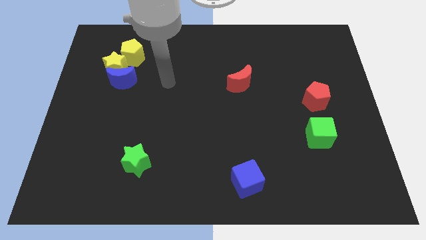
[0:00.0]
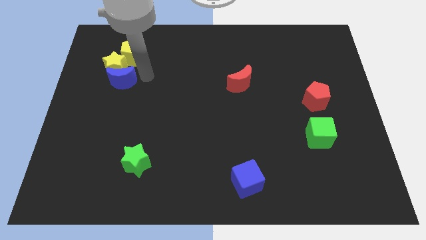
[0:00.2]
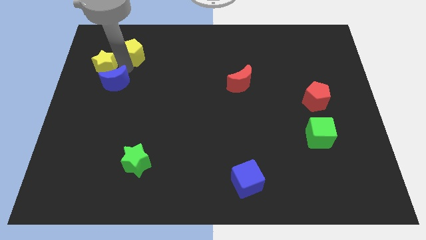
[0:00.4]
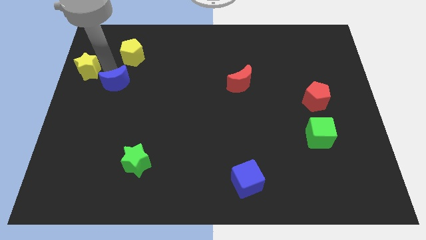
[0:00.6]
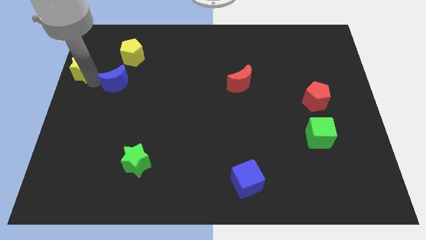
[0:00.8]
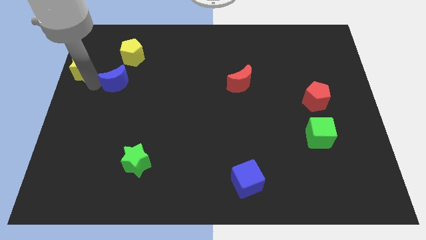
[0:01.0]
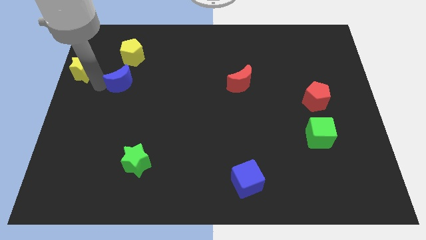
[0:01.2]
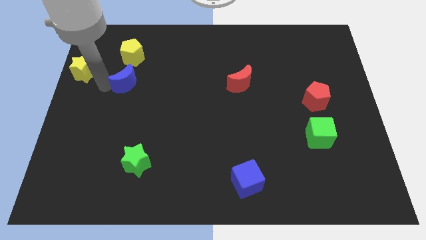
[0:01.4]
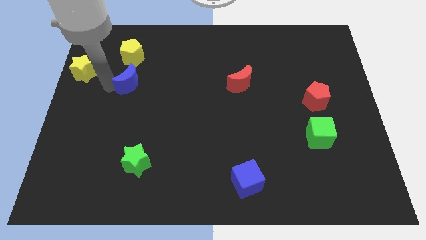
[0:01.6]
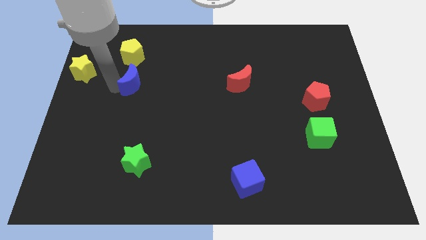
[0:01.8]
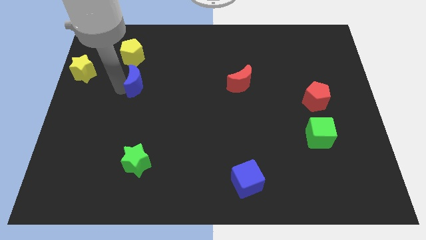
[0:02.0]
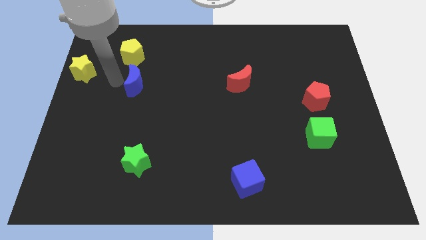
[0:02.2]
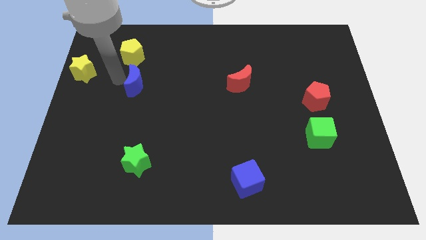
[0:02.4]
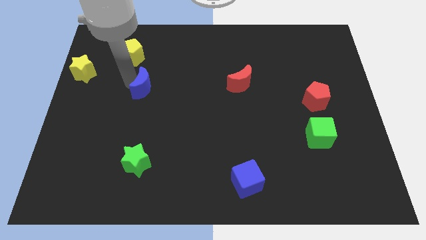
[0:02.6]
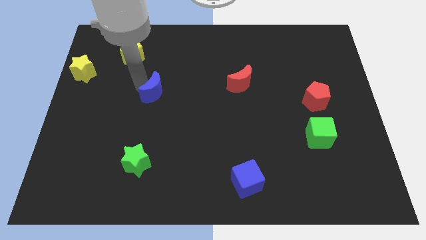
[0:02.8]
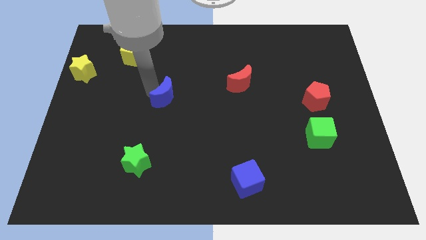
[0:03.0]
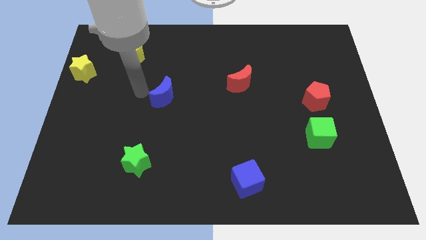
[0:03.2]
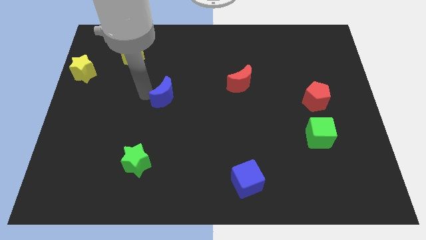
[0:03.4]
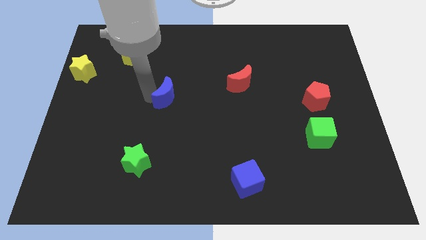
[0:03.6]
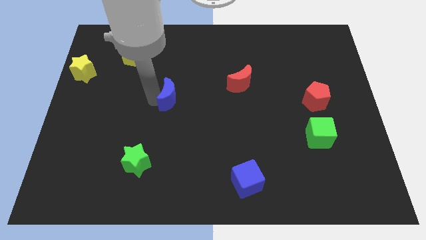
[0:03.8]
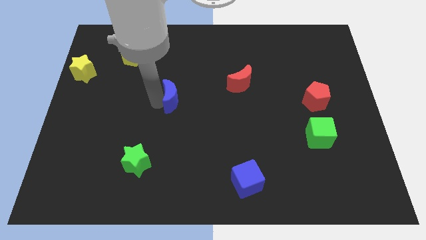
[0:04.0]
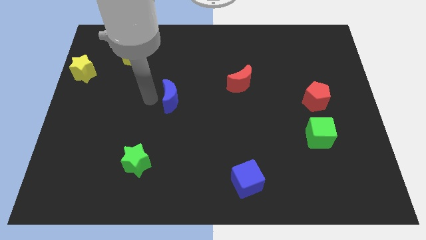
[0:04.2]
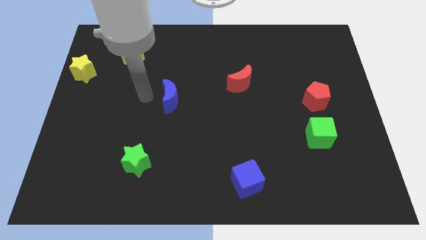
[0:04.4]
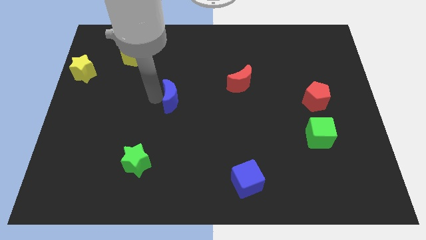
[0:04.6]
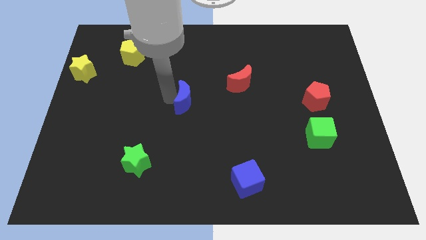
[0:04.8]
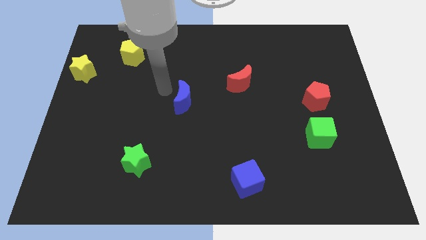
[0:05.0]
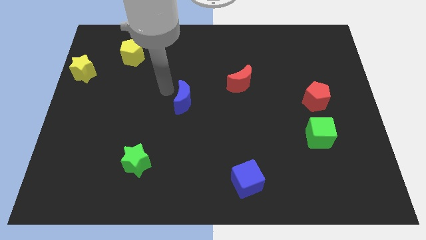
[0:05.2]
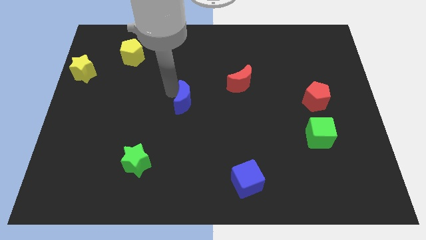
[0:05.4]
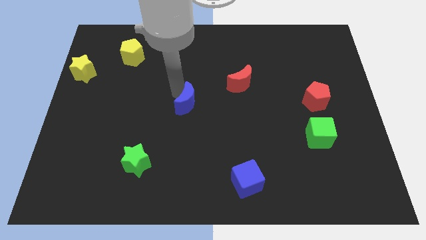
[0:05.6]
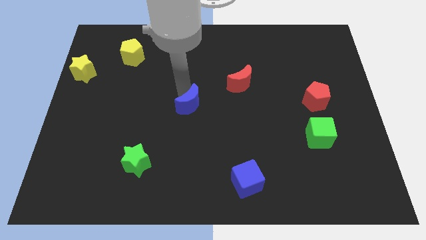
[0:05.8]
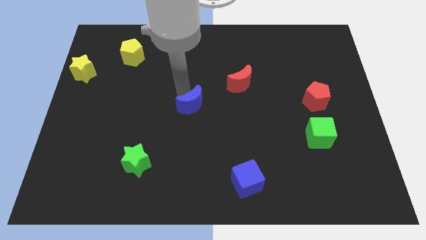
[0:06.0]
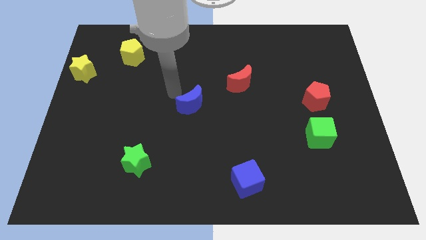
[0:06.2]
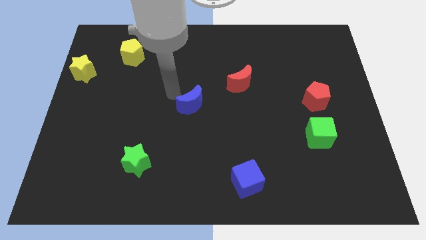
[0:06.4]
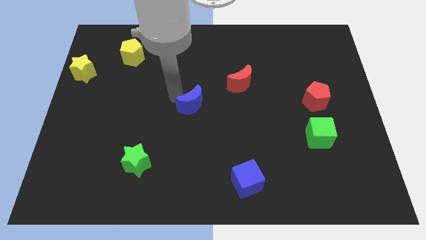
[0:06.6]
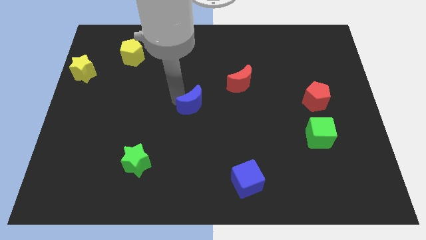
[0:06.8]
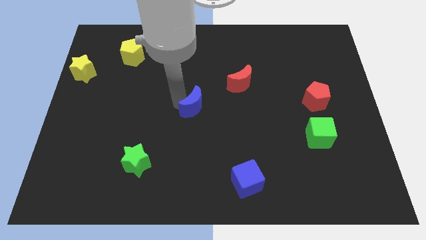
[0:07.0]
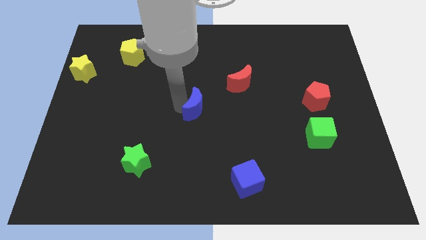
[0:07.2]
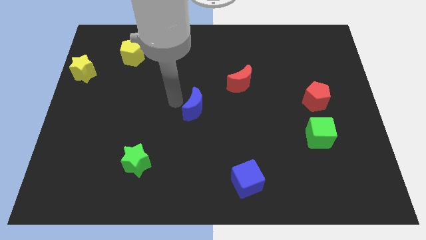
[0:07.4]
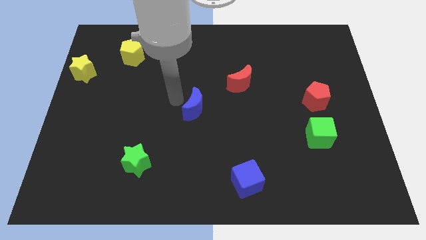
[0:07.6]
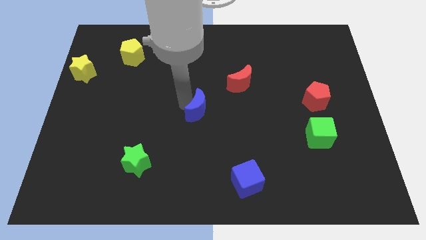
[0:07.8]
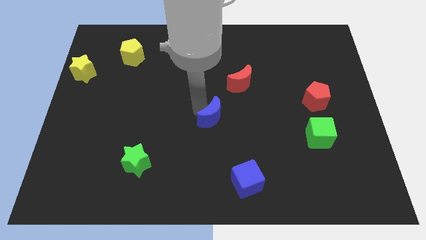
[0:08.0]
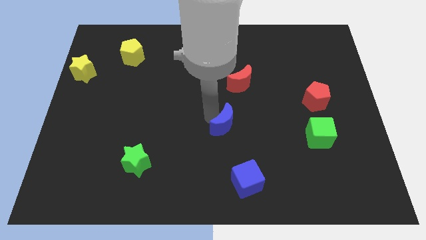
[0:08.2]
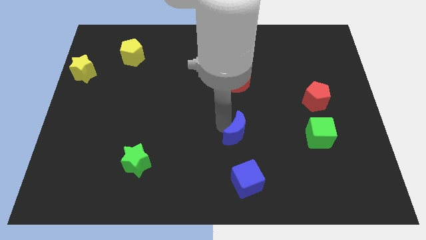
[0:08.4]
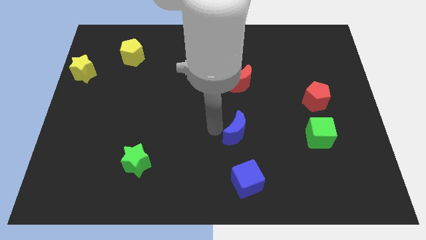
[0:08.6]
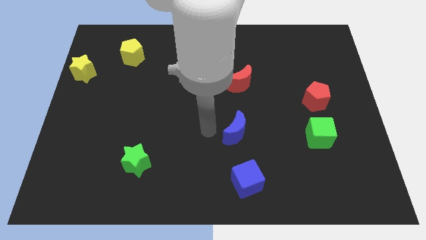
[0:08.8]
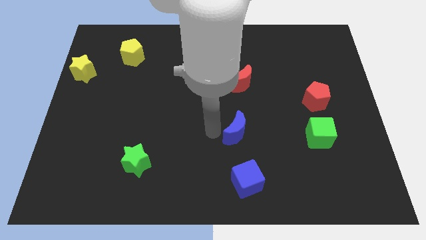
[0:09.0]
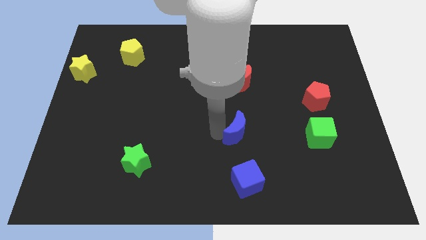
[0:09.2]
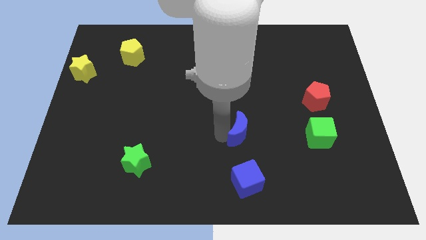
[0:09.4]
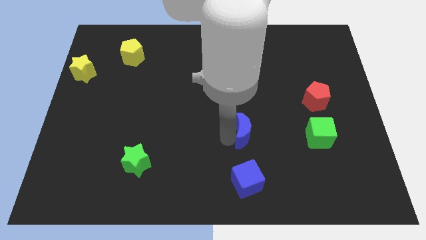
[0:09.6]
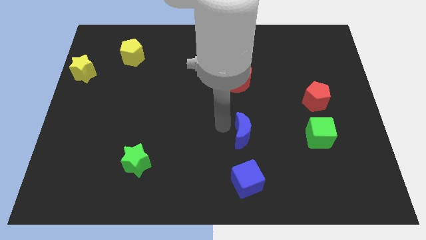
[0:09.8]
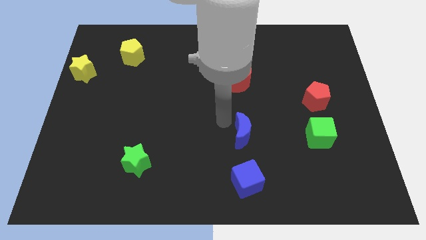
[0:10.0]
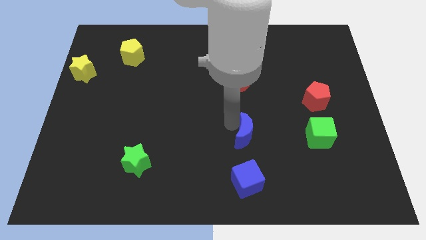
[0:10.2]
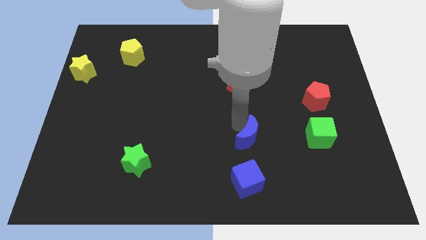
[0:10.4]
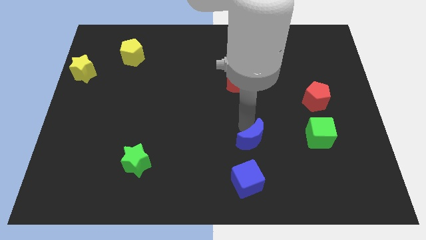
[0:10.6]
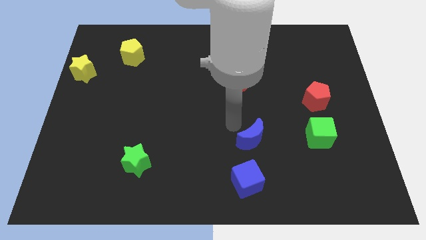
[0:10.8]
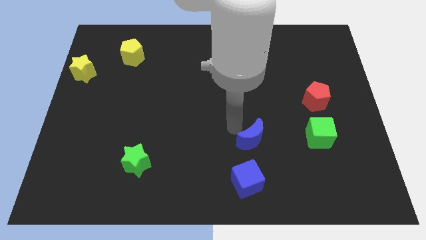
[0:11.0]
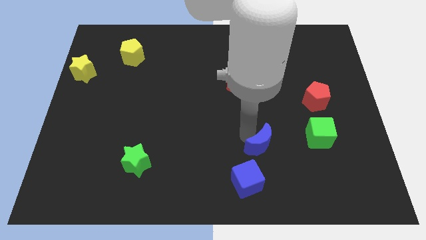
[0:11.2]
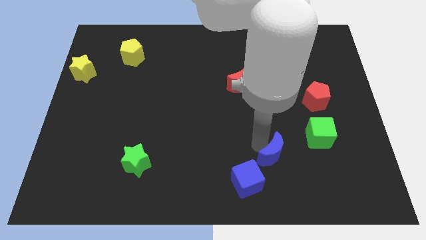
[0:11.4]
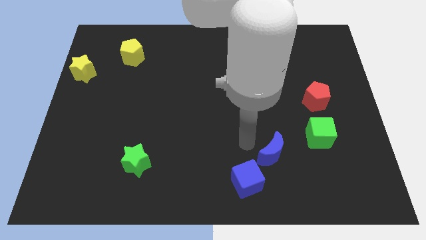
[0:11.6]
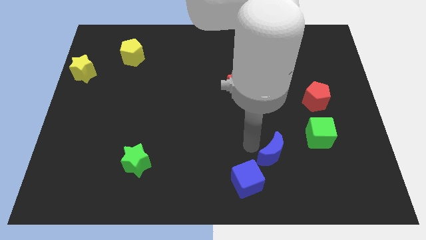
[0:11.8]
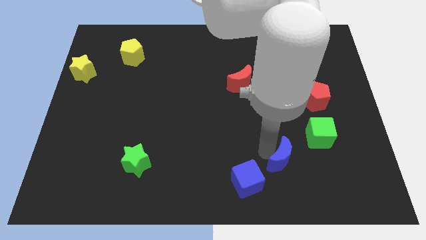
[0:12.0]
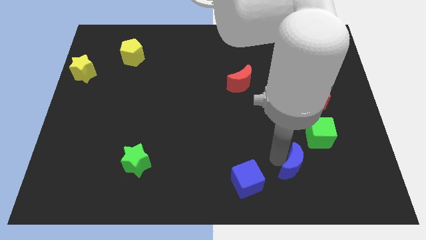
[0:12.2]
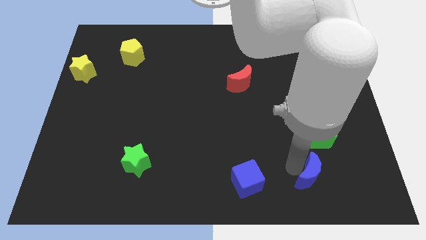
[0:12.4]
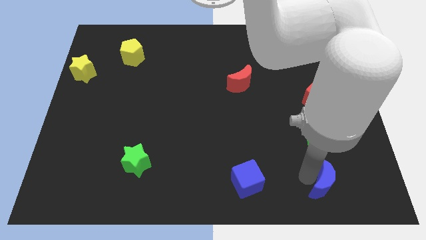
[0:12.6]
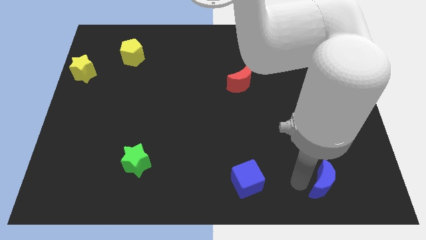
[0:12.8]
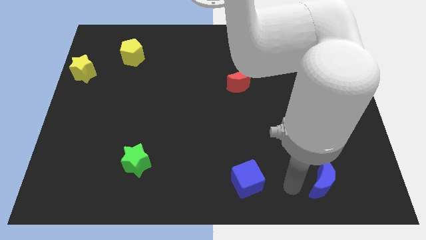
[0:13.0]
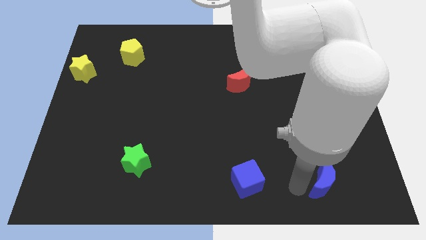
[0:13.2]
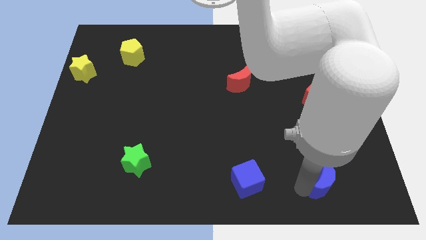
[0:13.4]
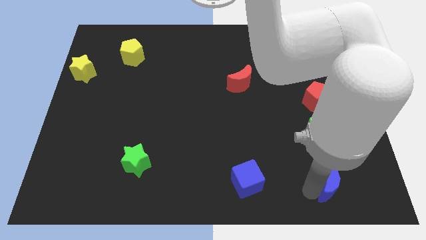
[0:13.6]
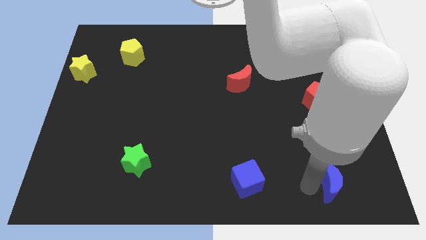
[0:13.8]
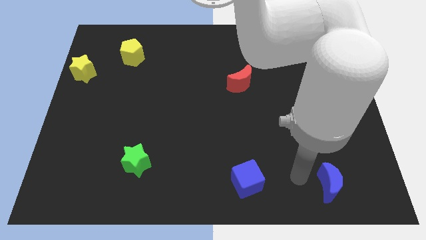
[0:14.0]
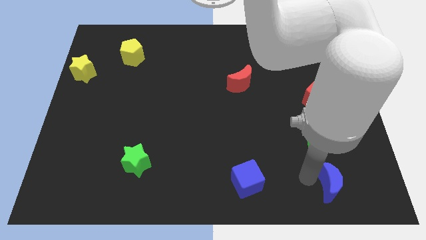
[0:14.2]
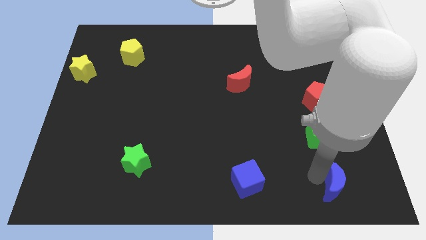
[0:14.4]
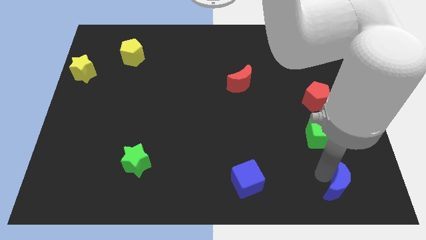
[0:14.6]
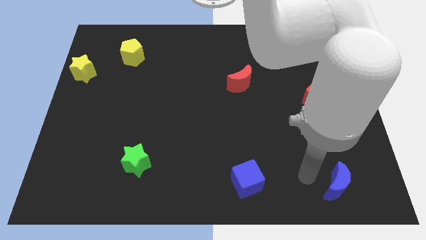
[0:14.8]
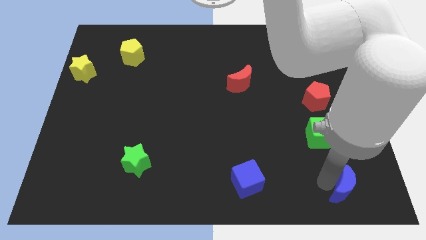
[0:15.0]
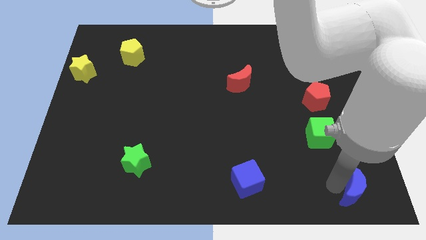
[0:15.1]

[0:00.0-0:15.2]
push the blue moon to the bottom right
